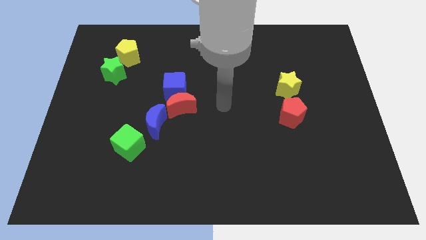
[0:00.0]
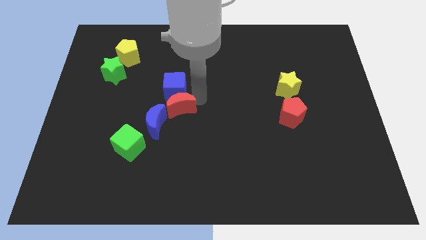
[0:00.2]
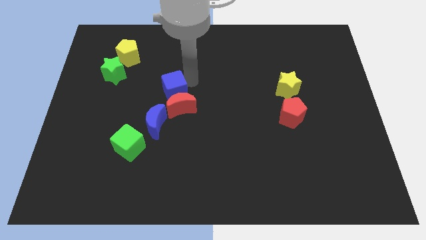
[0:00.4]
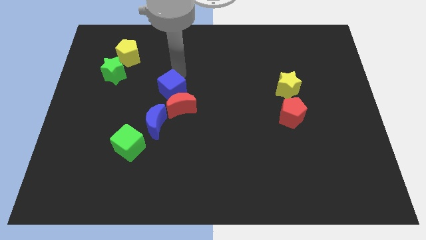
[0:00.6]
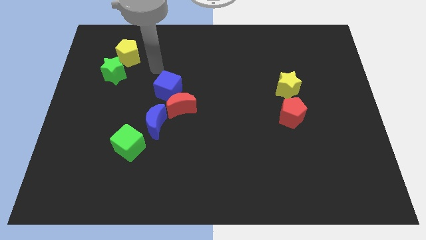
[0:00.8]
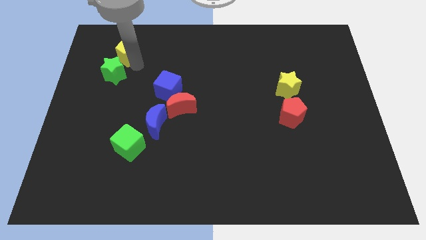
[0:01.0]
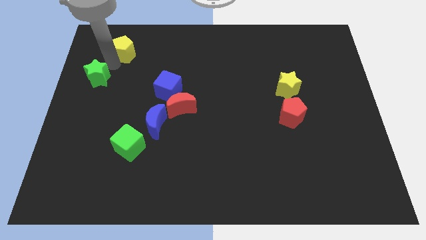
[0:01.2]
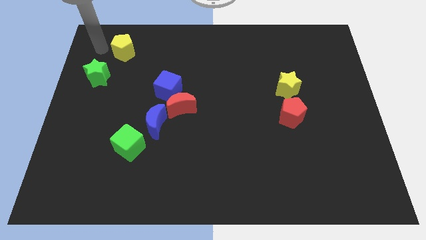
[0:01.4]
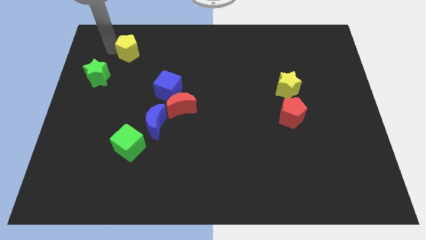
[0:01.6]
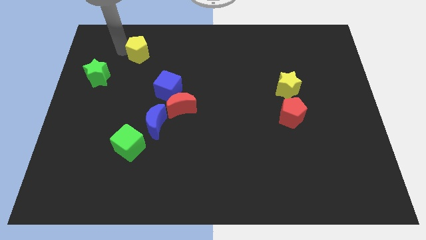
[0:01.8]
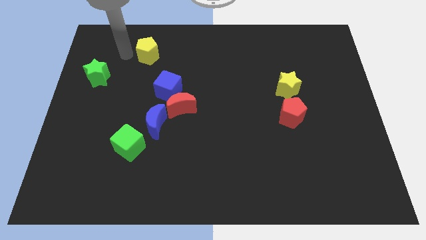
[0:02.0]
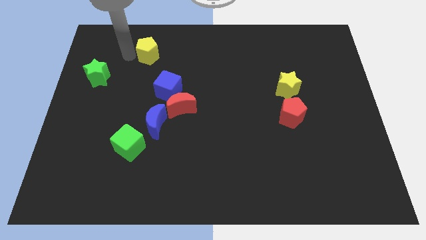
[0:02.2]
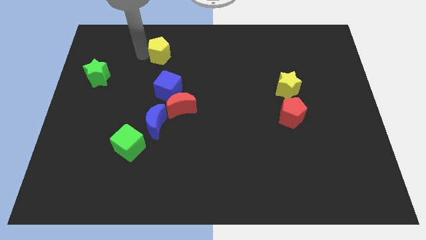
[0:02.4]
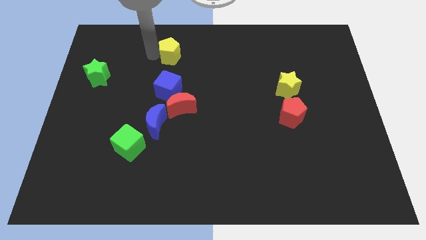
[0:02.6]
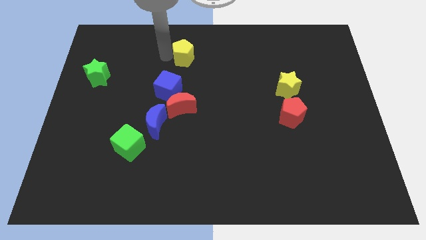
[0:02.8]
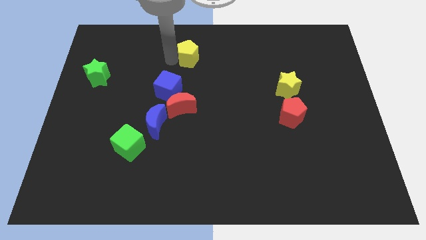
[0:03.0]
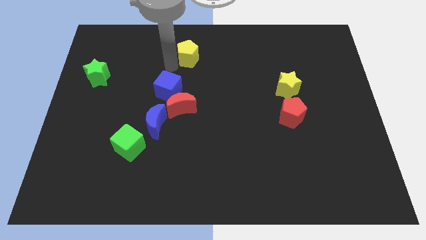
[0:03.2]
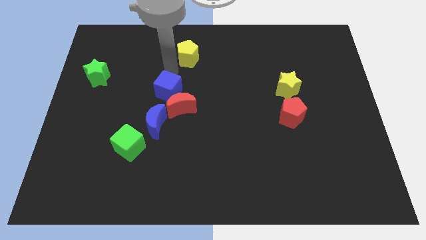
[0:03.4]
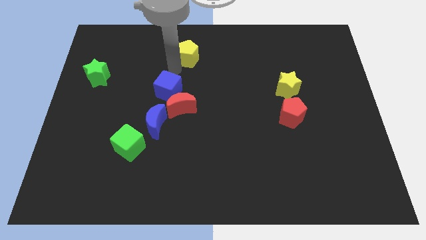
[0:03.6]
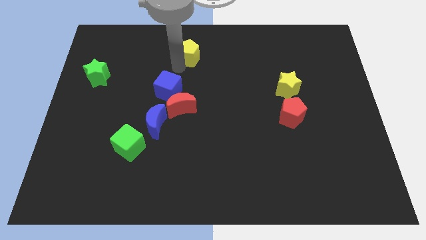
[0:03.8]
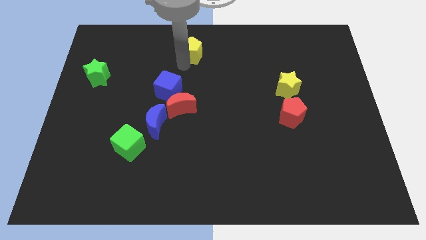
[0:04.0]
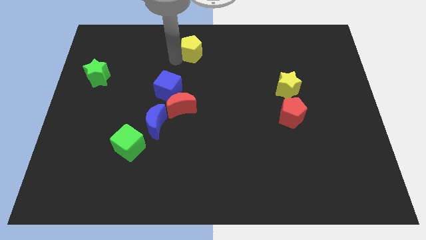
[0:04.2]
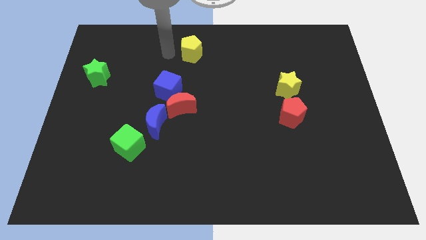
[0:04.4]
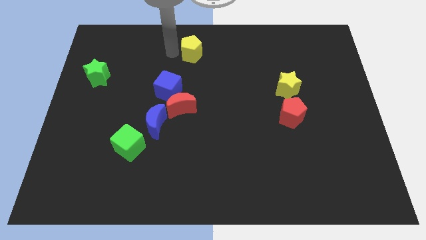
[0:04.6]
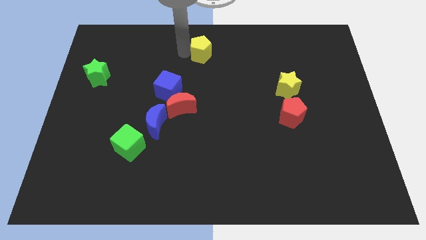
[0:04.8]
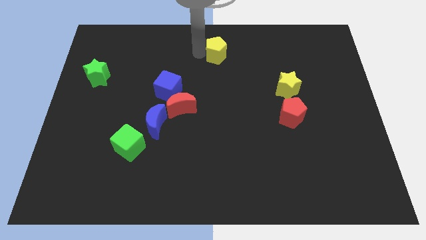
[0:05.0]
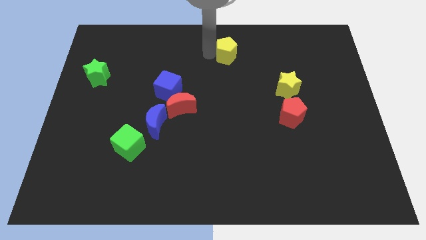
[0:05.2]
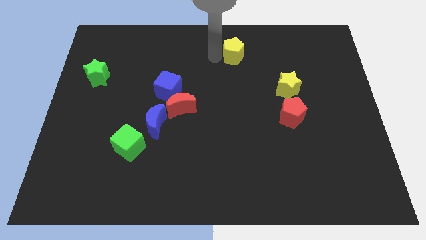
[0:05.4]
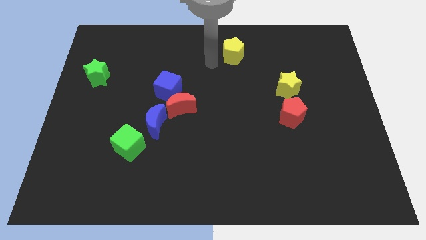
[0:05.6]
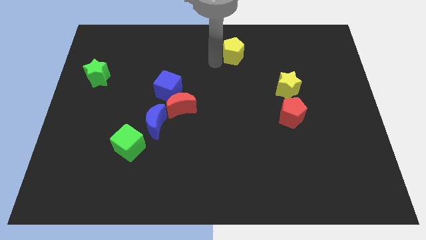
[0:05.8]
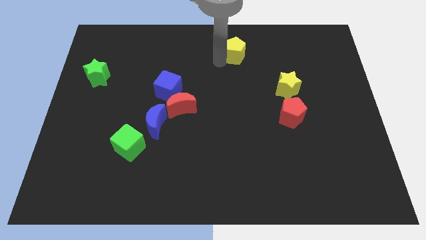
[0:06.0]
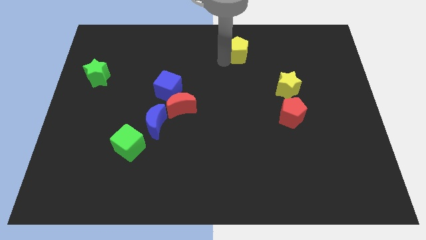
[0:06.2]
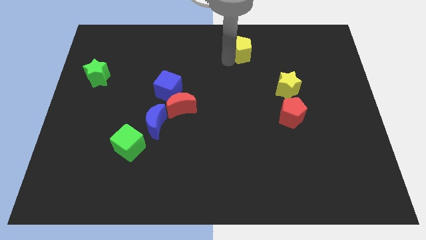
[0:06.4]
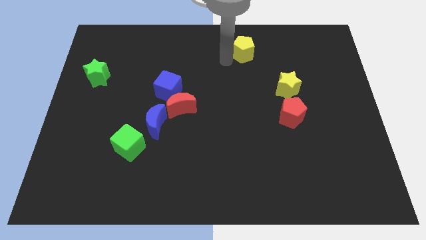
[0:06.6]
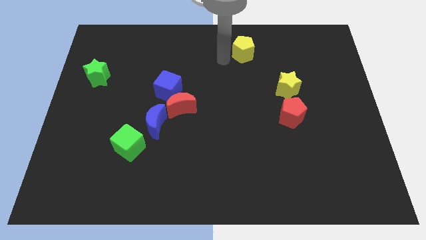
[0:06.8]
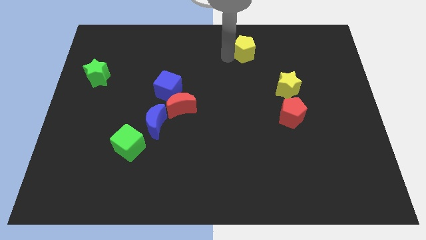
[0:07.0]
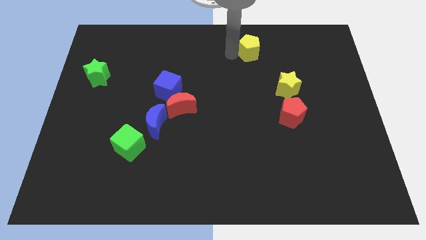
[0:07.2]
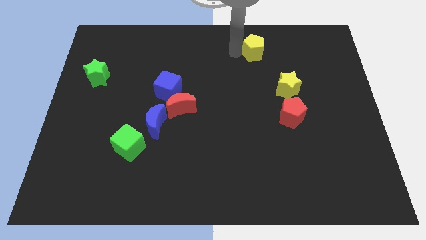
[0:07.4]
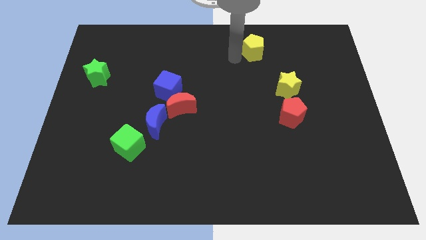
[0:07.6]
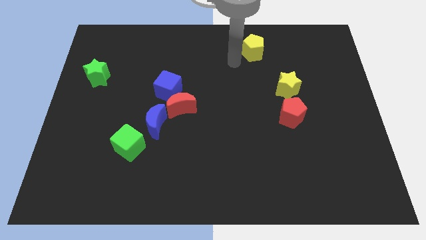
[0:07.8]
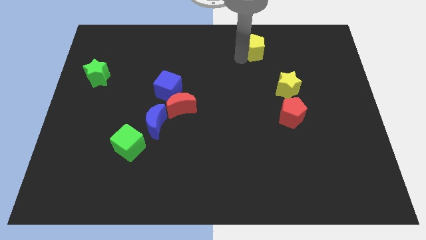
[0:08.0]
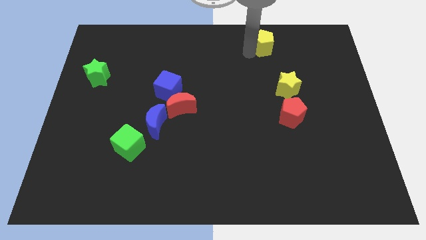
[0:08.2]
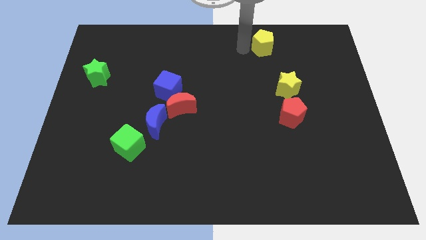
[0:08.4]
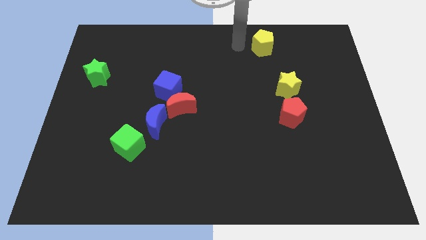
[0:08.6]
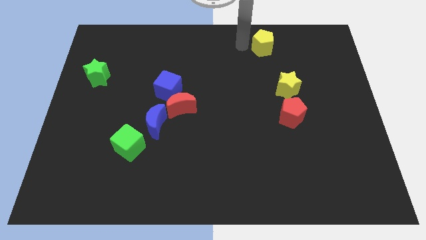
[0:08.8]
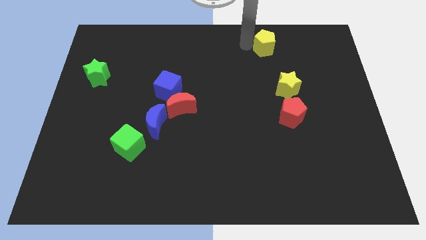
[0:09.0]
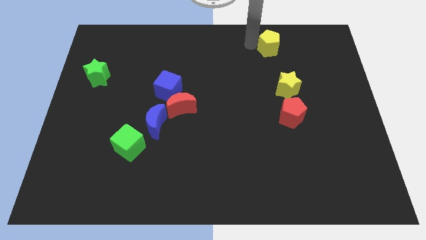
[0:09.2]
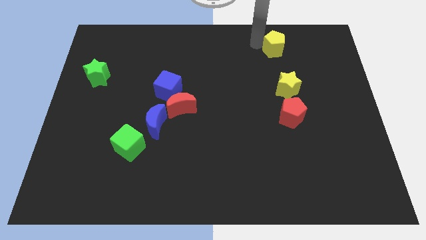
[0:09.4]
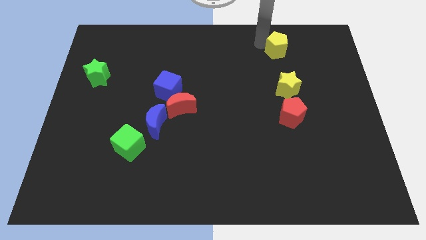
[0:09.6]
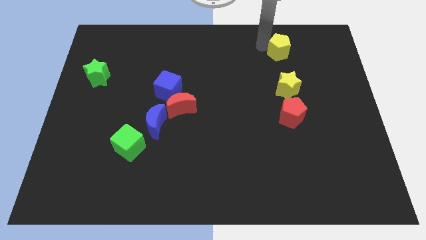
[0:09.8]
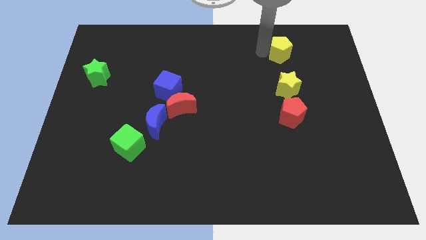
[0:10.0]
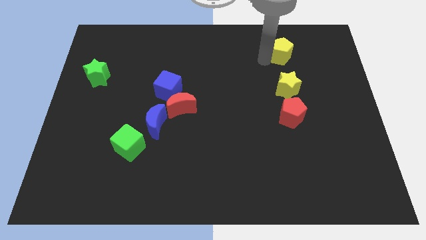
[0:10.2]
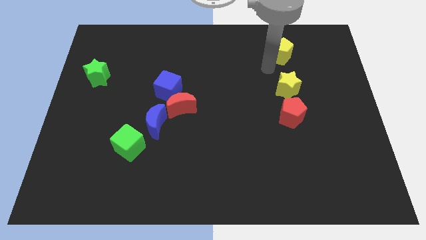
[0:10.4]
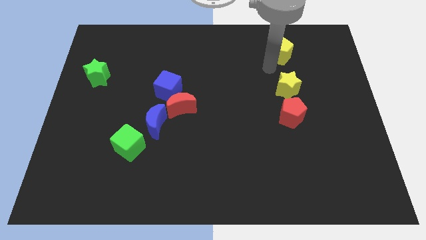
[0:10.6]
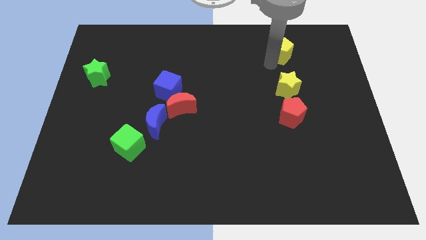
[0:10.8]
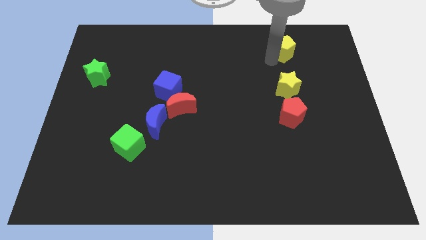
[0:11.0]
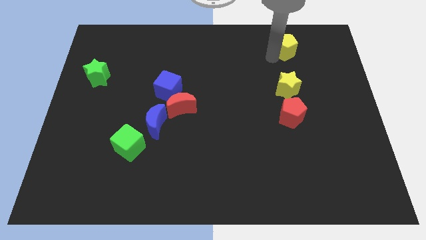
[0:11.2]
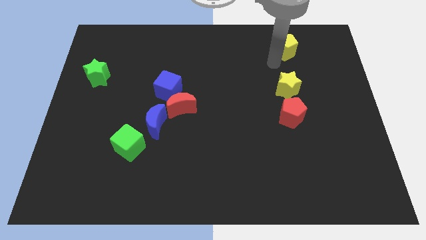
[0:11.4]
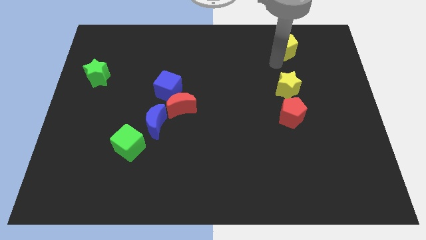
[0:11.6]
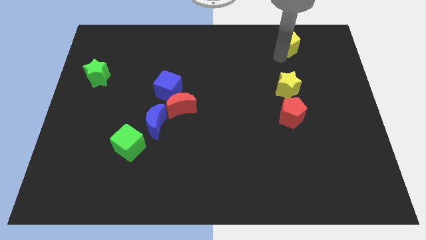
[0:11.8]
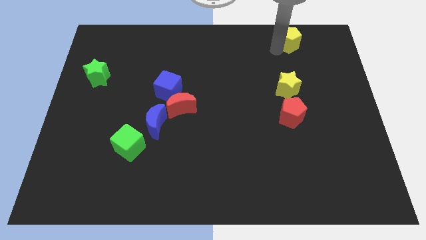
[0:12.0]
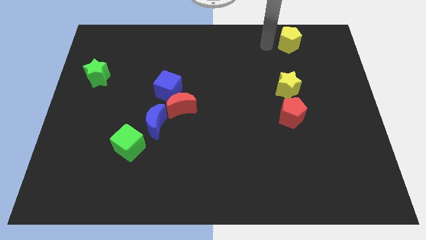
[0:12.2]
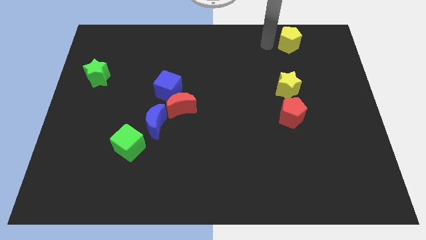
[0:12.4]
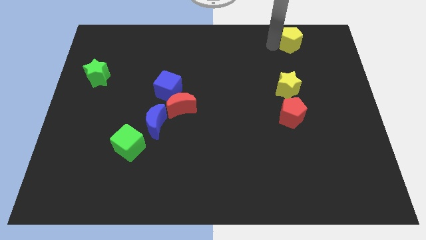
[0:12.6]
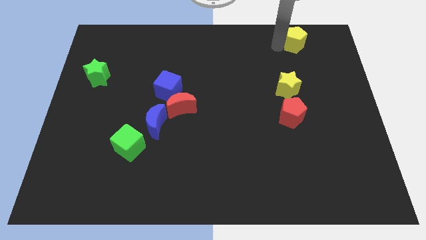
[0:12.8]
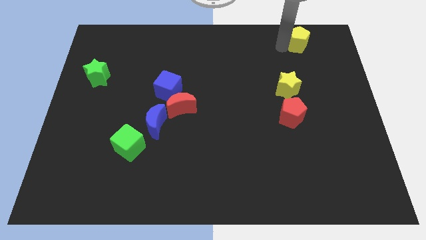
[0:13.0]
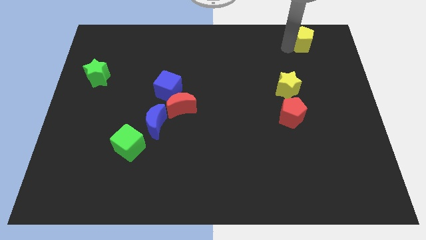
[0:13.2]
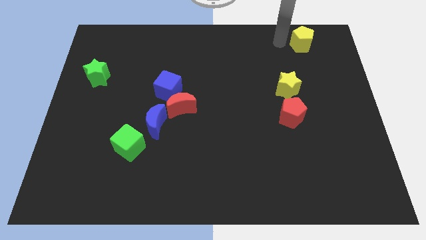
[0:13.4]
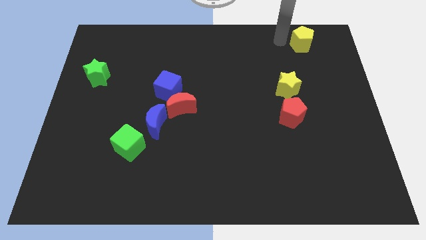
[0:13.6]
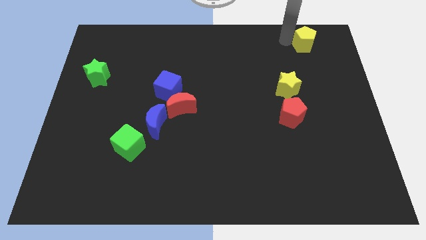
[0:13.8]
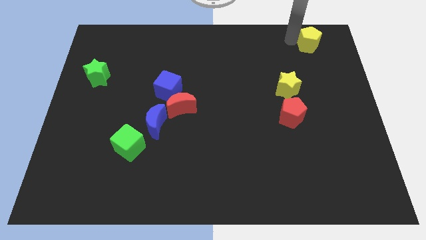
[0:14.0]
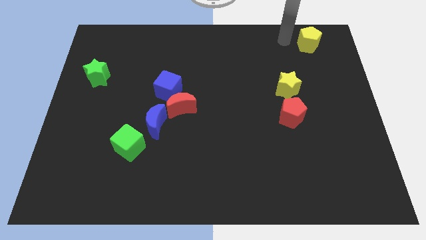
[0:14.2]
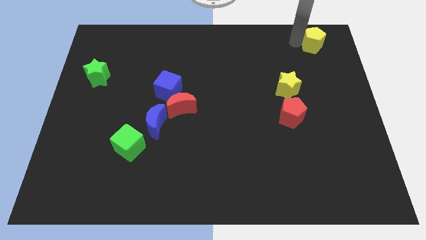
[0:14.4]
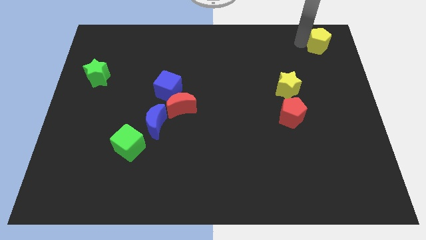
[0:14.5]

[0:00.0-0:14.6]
put the yellow pentagon to the top right corner
